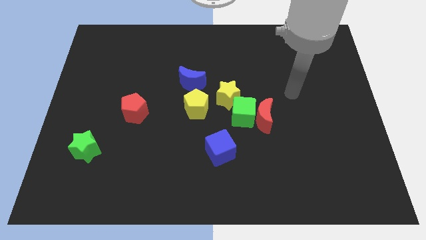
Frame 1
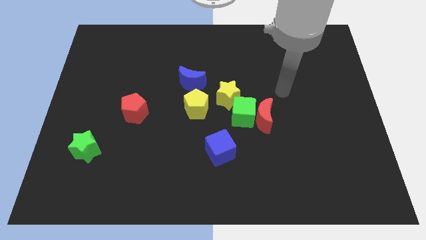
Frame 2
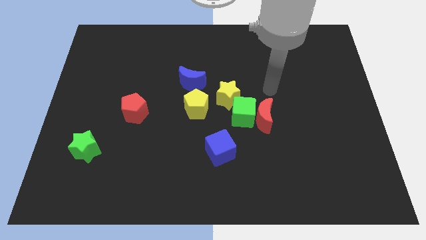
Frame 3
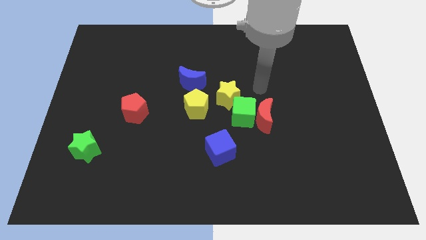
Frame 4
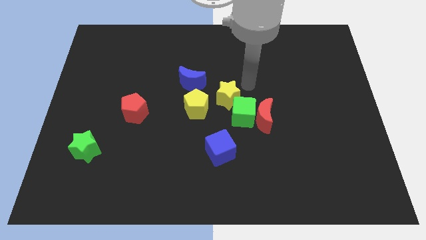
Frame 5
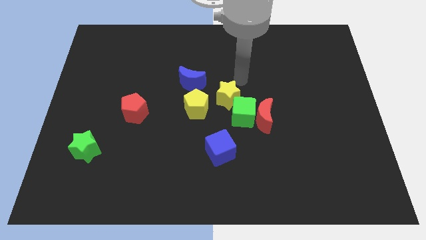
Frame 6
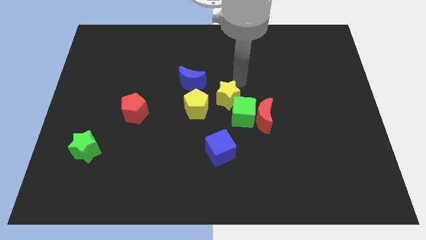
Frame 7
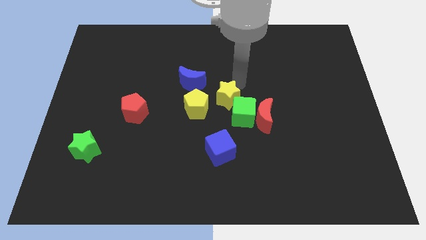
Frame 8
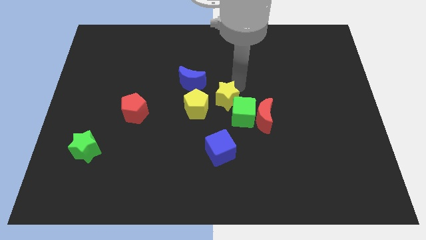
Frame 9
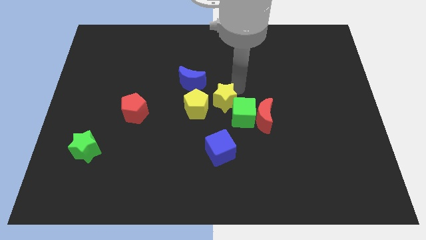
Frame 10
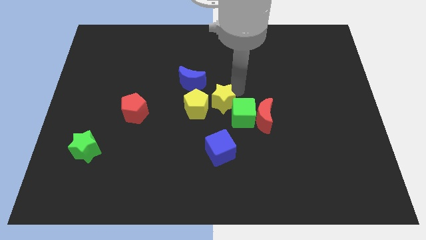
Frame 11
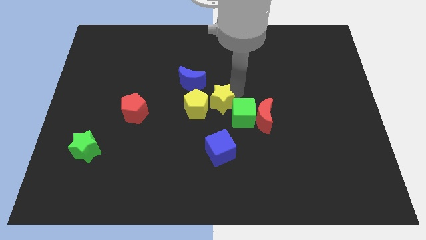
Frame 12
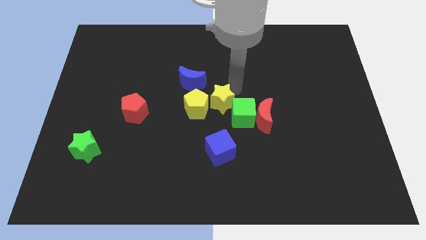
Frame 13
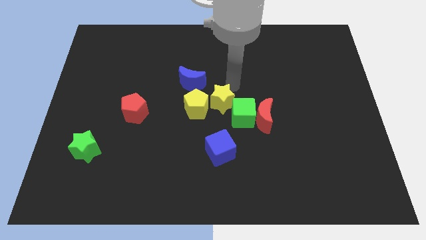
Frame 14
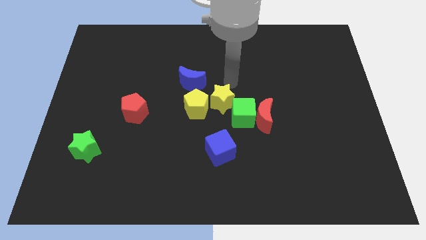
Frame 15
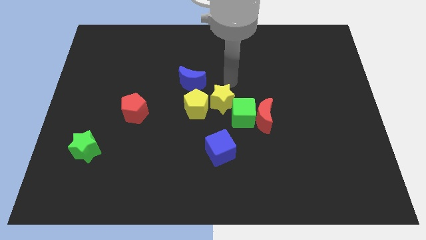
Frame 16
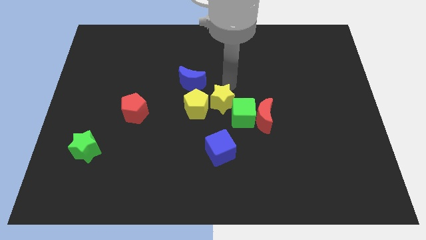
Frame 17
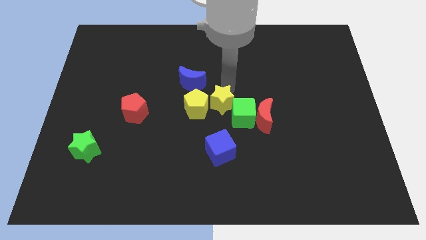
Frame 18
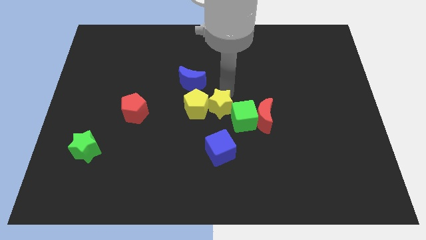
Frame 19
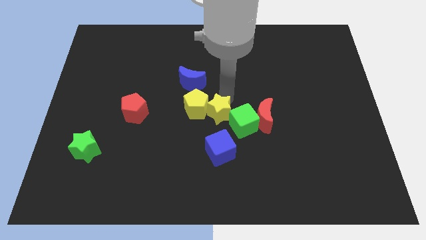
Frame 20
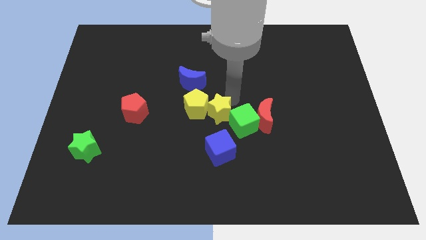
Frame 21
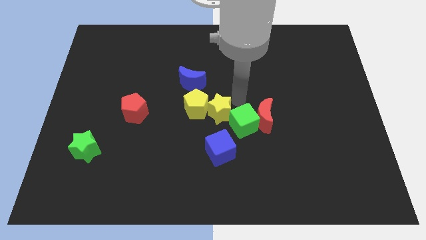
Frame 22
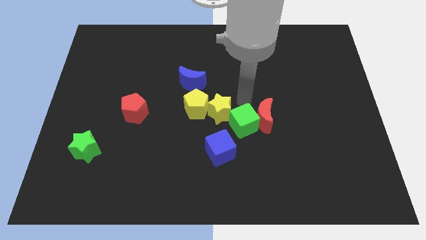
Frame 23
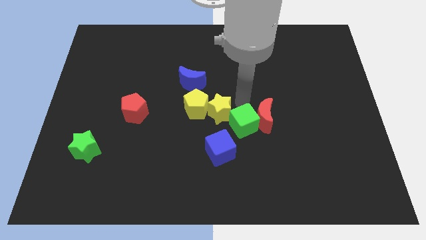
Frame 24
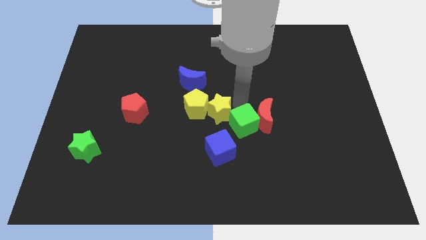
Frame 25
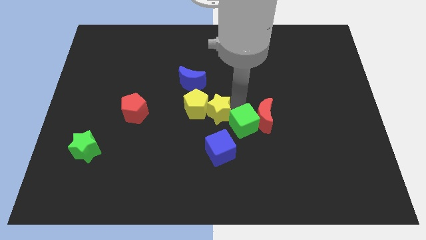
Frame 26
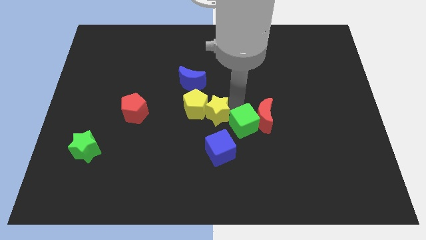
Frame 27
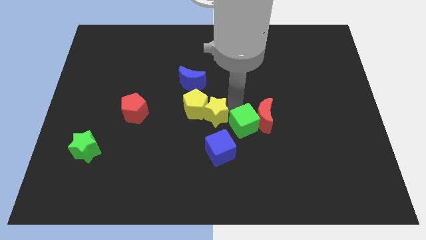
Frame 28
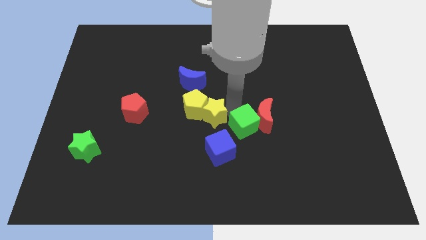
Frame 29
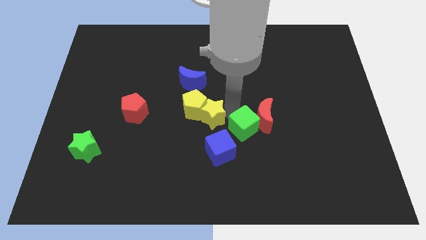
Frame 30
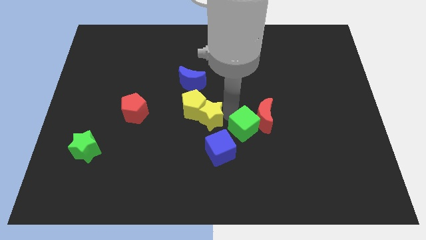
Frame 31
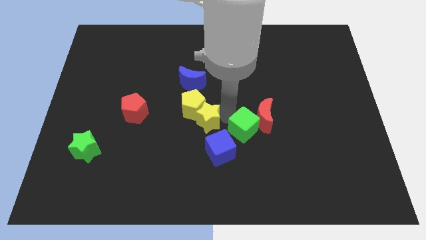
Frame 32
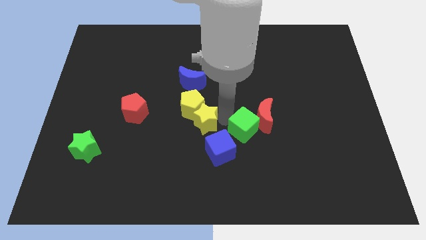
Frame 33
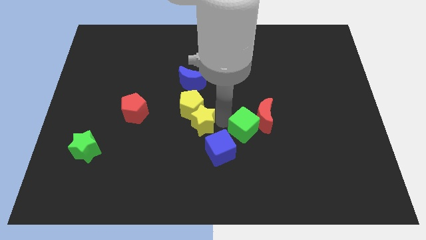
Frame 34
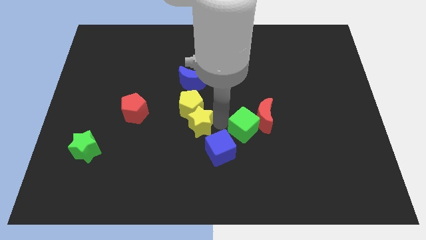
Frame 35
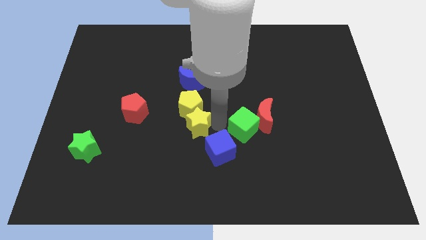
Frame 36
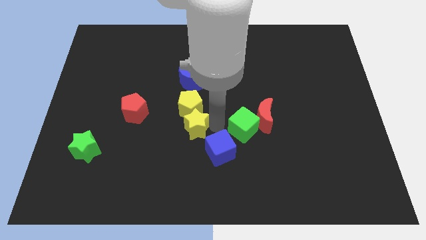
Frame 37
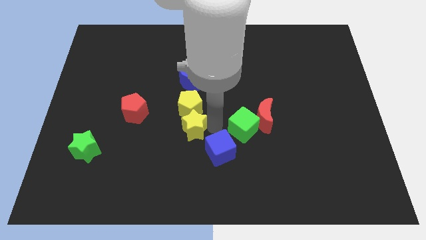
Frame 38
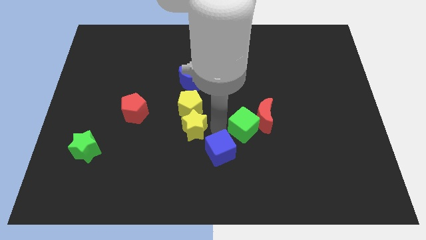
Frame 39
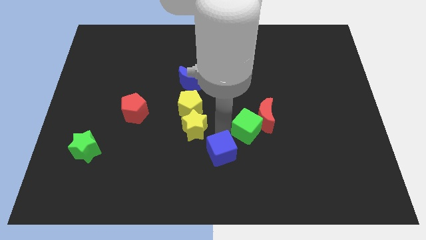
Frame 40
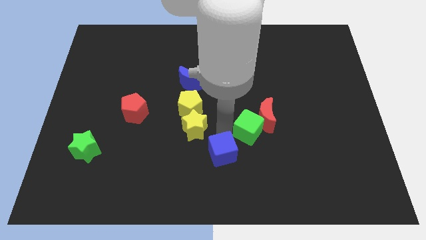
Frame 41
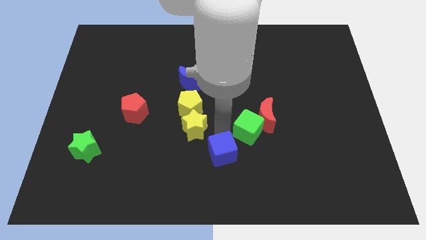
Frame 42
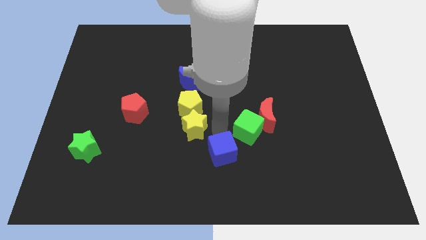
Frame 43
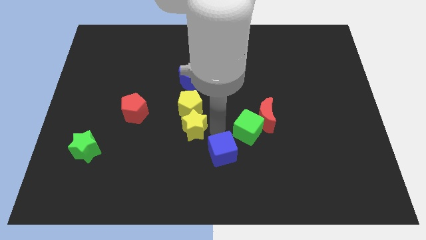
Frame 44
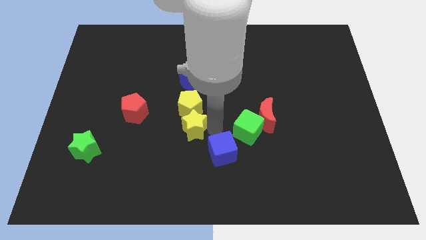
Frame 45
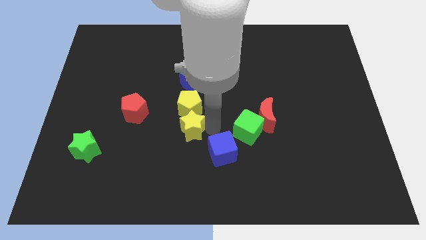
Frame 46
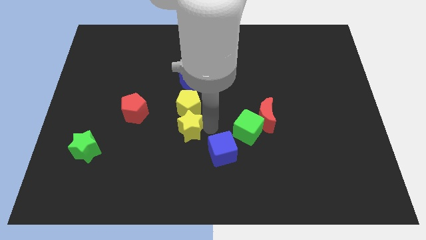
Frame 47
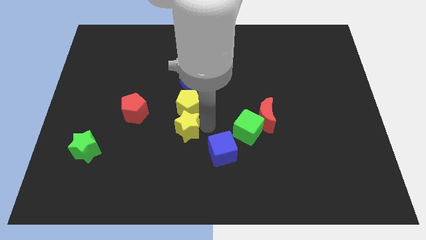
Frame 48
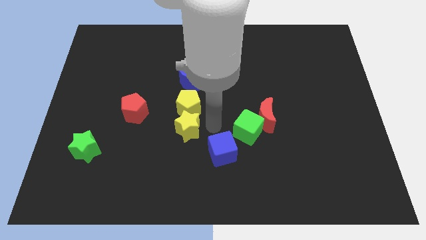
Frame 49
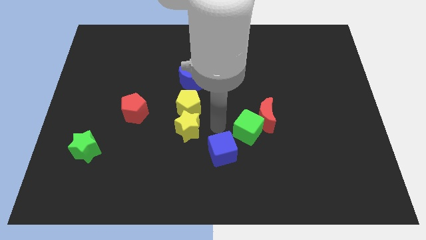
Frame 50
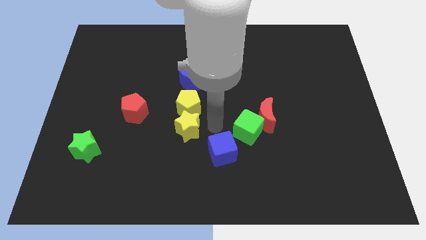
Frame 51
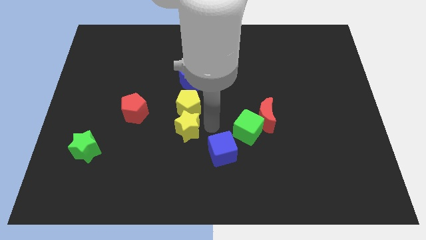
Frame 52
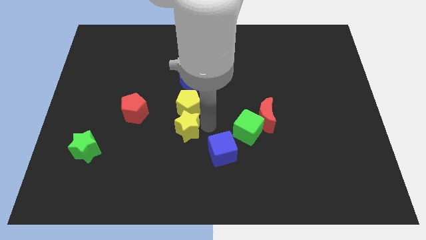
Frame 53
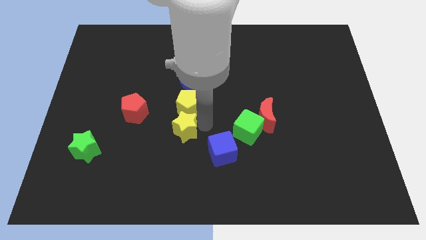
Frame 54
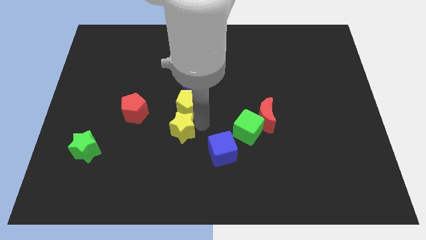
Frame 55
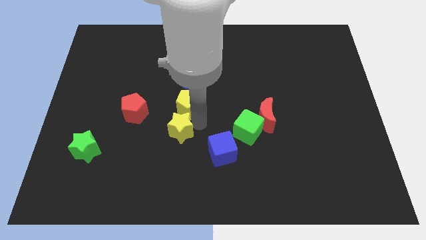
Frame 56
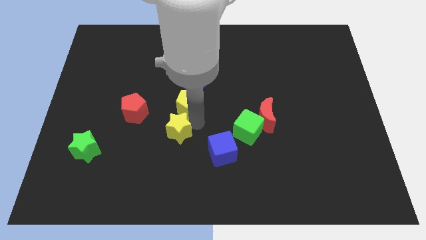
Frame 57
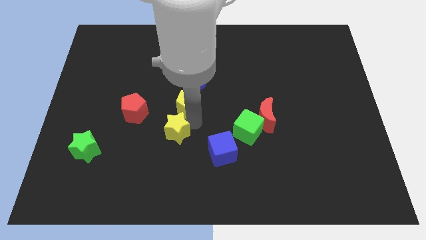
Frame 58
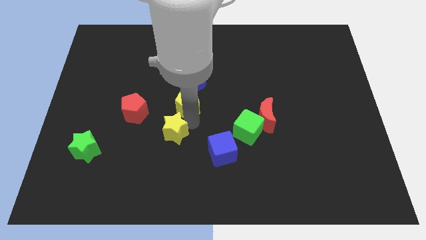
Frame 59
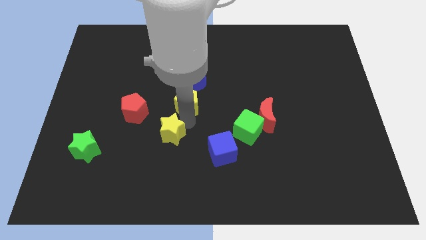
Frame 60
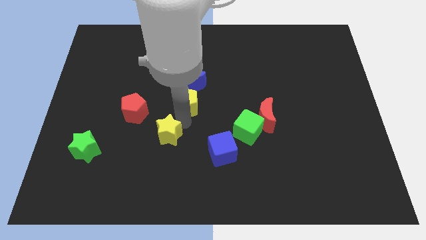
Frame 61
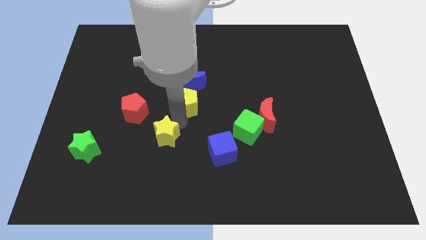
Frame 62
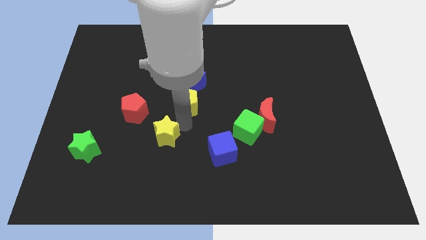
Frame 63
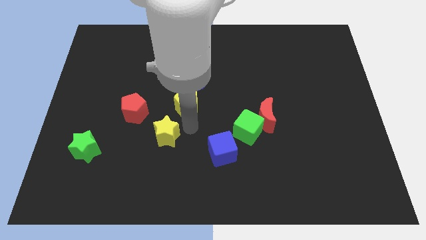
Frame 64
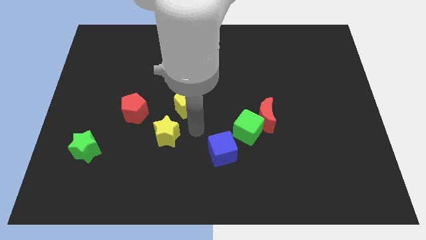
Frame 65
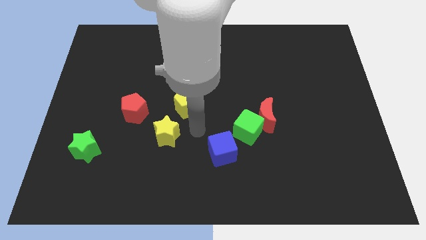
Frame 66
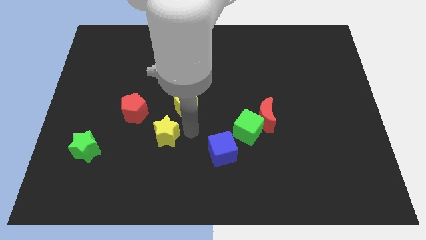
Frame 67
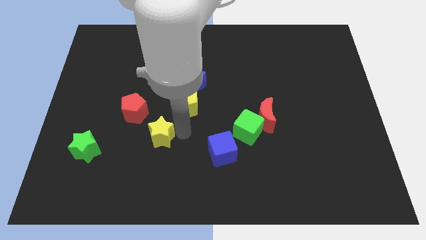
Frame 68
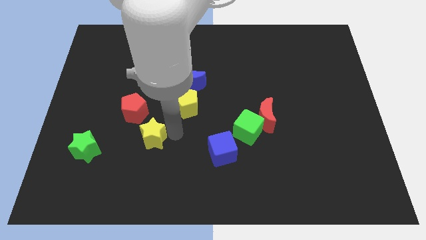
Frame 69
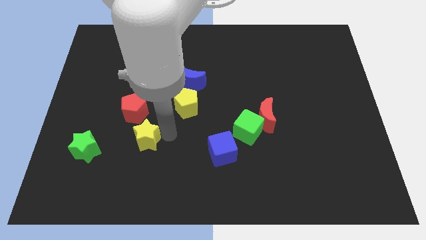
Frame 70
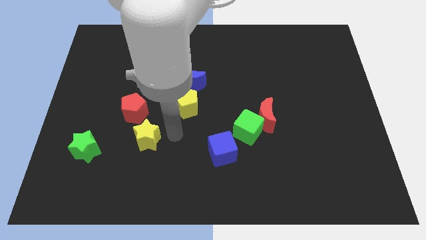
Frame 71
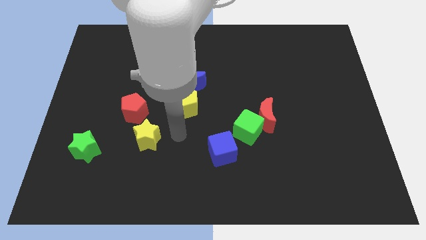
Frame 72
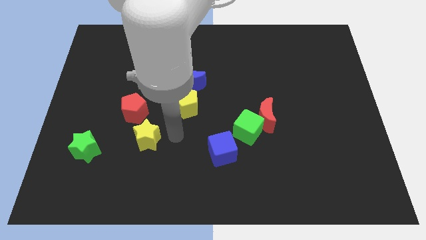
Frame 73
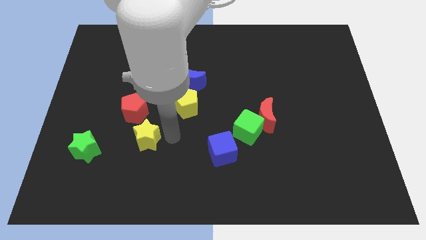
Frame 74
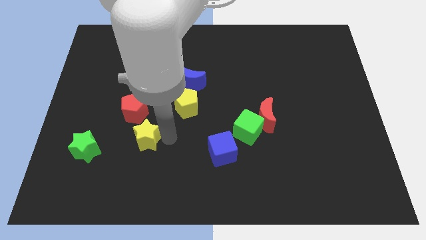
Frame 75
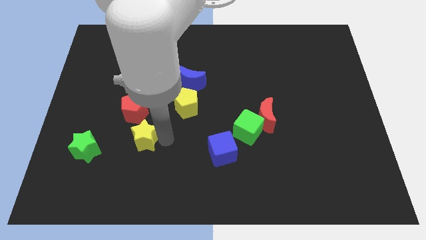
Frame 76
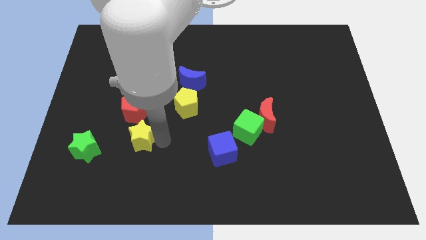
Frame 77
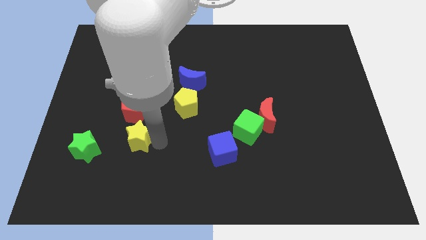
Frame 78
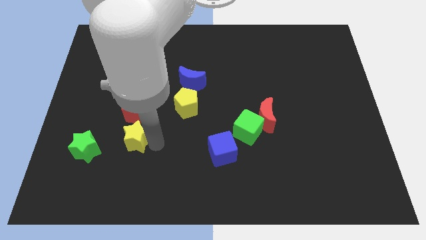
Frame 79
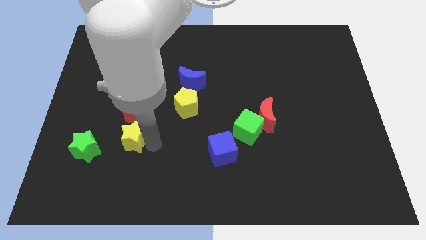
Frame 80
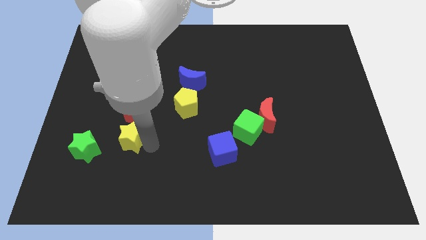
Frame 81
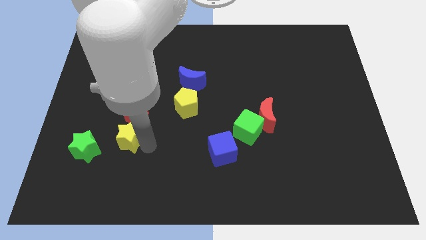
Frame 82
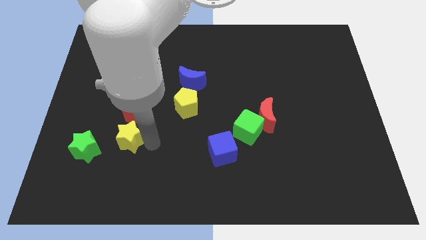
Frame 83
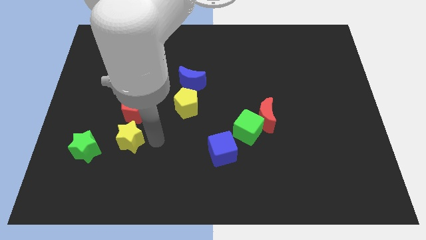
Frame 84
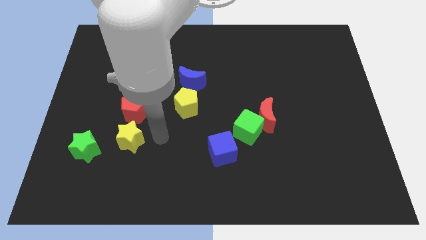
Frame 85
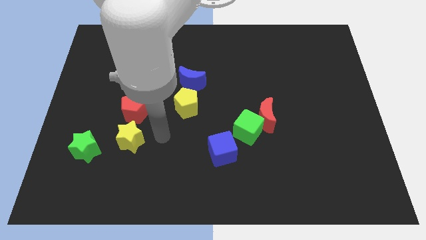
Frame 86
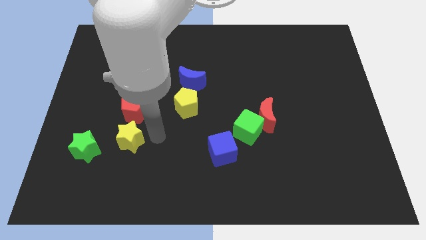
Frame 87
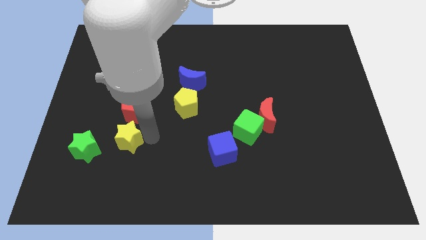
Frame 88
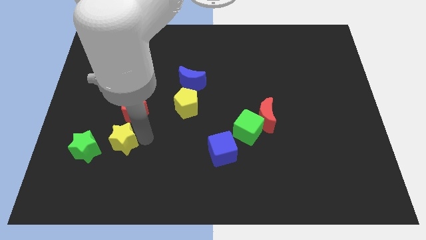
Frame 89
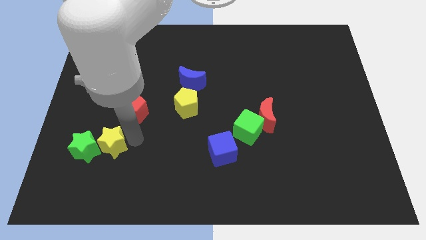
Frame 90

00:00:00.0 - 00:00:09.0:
push the yellow star to the green star
